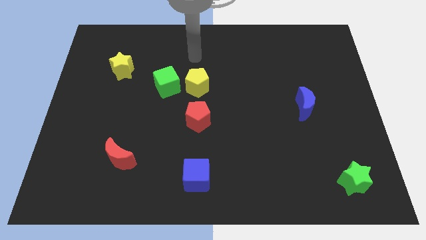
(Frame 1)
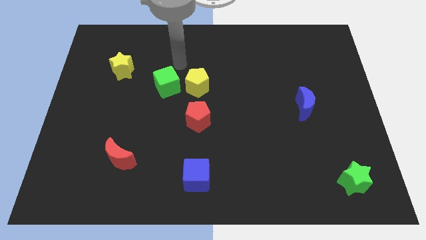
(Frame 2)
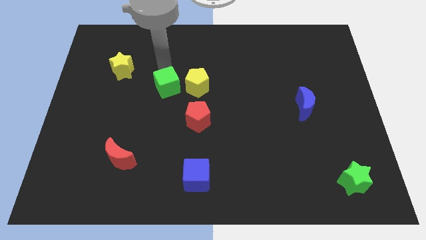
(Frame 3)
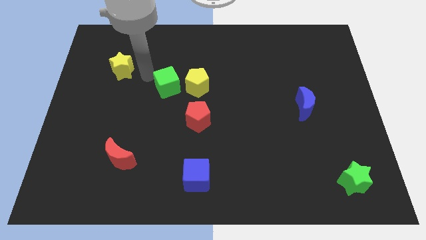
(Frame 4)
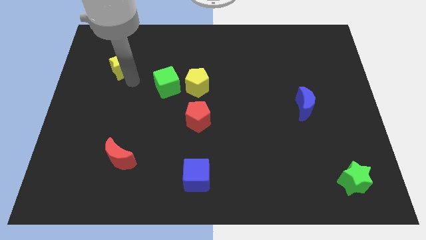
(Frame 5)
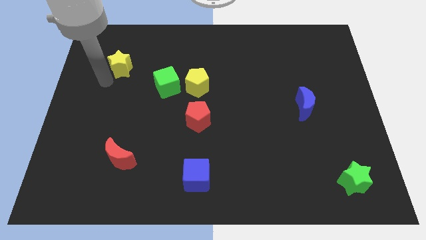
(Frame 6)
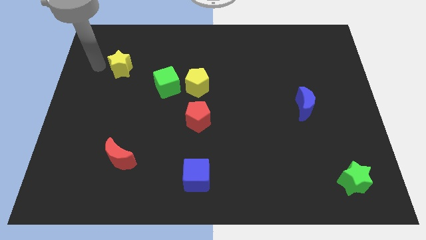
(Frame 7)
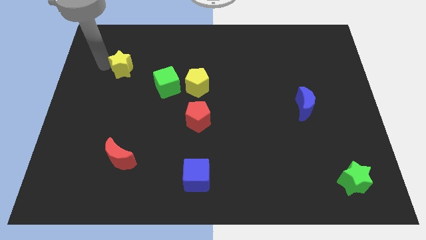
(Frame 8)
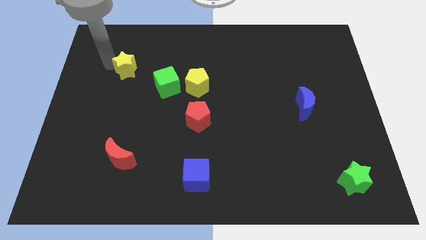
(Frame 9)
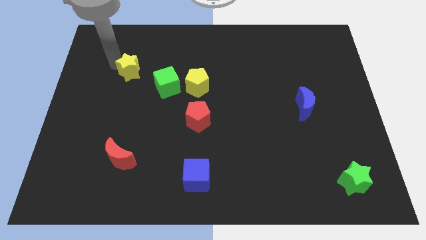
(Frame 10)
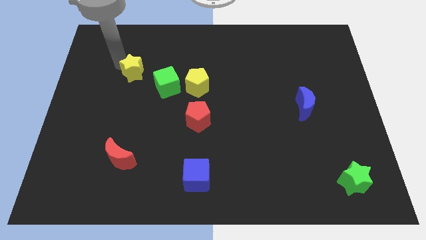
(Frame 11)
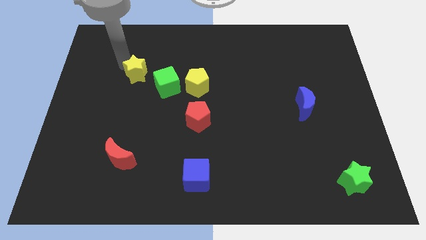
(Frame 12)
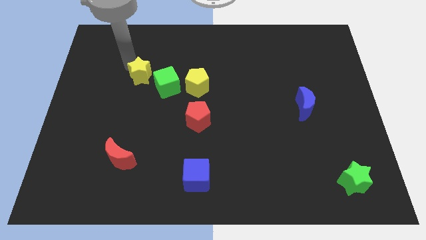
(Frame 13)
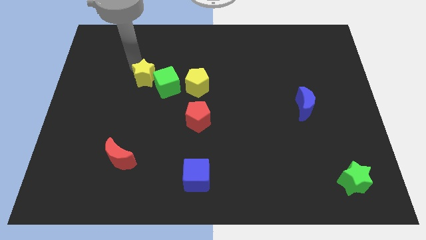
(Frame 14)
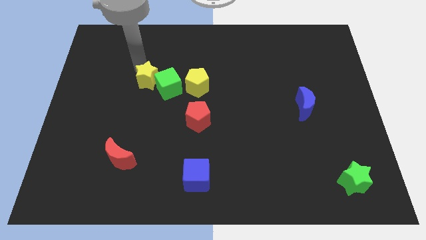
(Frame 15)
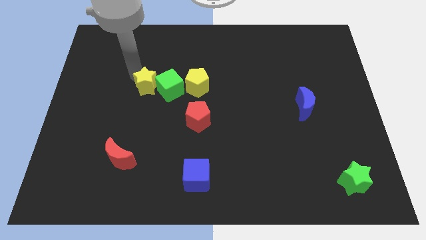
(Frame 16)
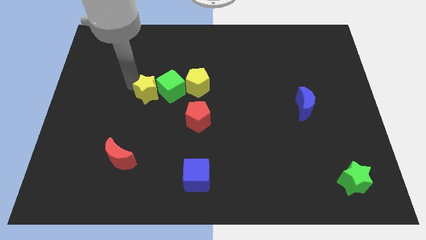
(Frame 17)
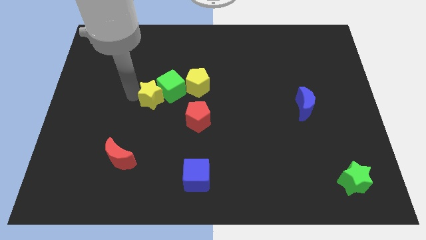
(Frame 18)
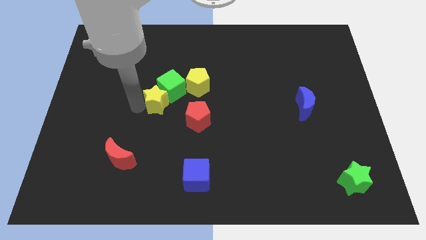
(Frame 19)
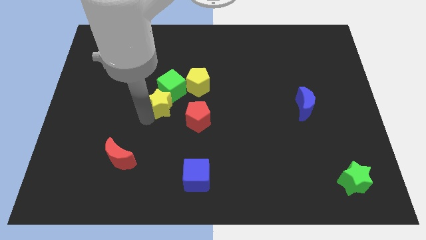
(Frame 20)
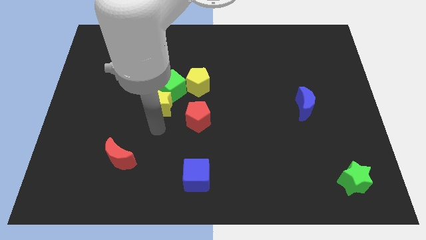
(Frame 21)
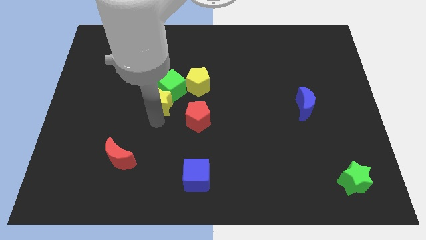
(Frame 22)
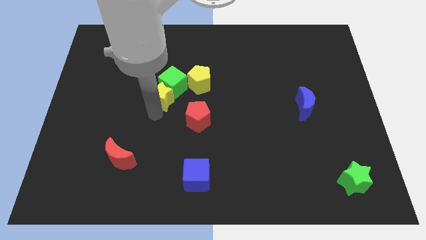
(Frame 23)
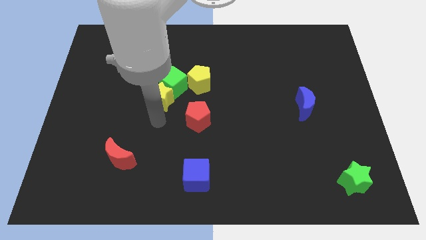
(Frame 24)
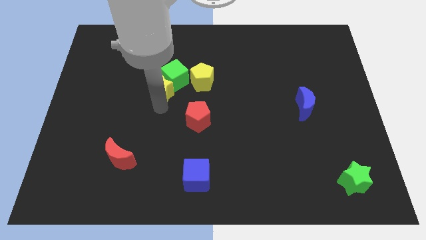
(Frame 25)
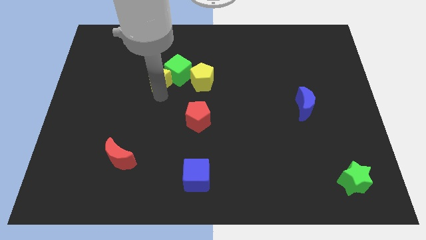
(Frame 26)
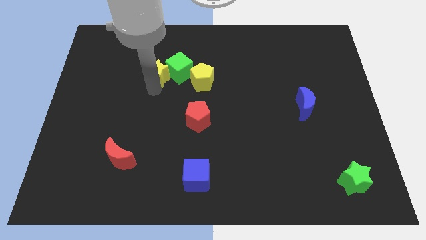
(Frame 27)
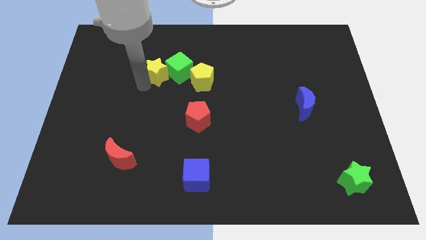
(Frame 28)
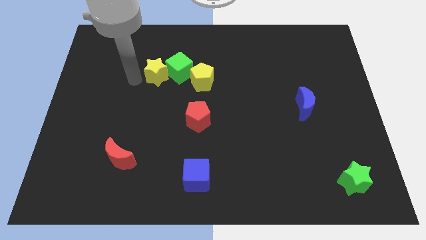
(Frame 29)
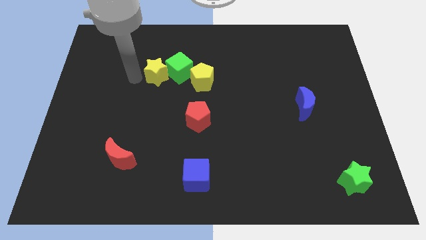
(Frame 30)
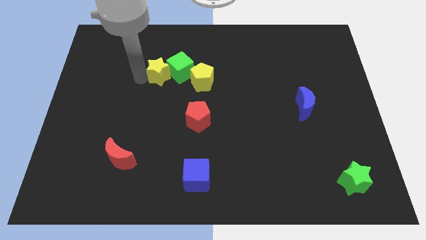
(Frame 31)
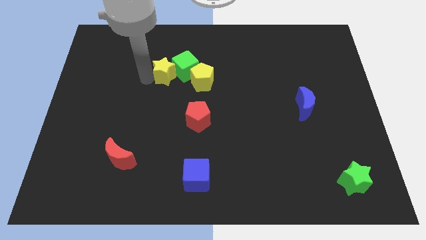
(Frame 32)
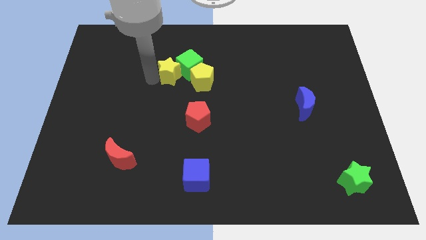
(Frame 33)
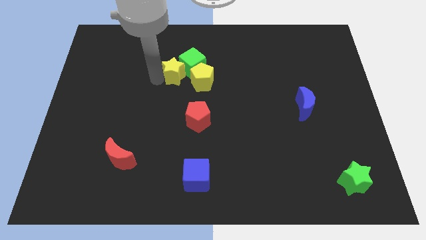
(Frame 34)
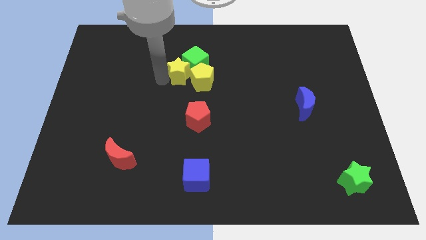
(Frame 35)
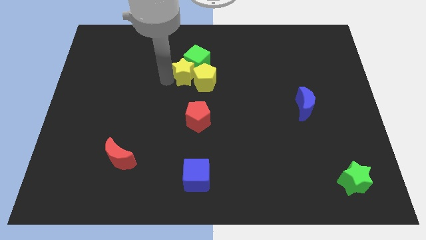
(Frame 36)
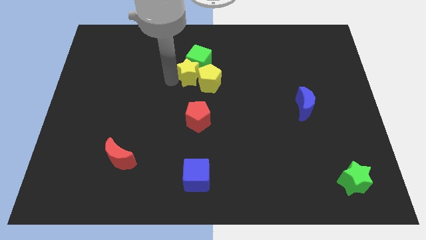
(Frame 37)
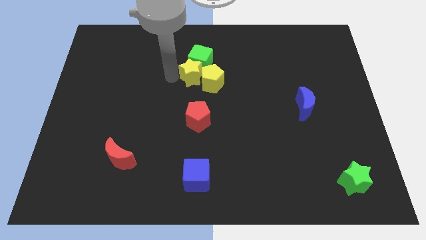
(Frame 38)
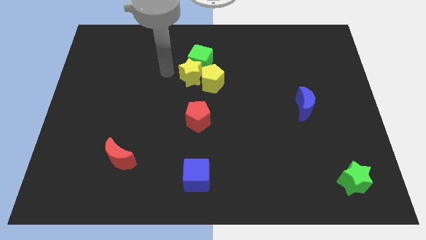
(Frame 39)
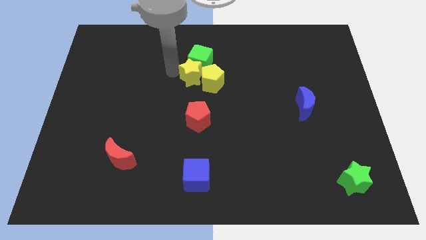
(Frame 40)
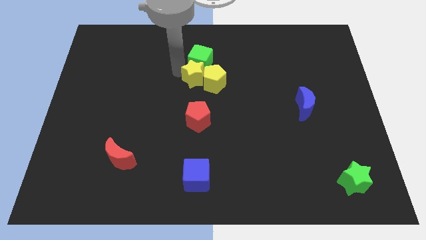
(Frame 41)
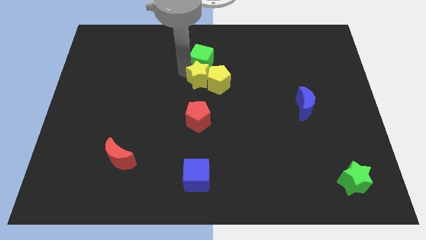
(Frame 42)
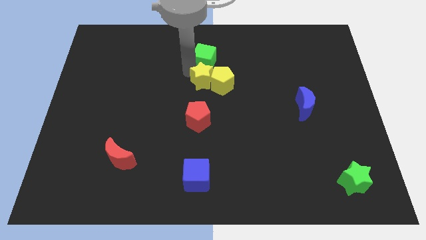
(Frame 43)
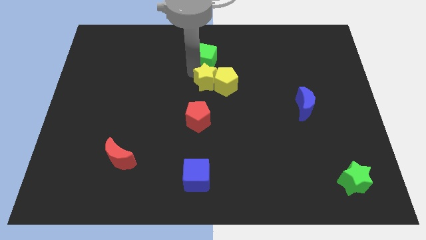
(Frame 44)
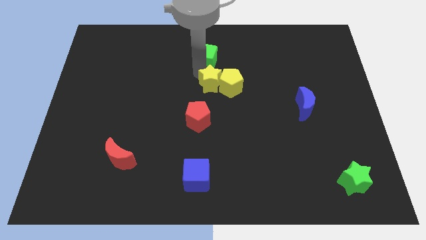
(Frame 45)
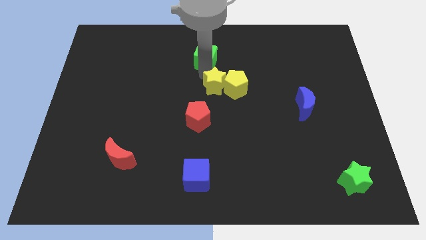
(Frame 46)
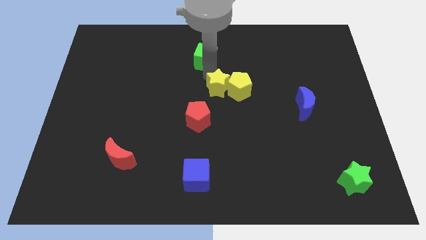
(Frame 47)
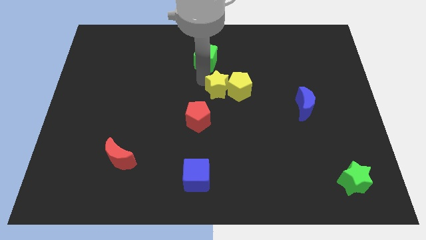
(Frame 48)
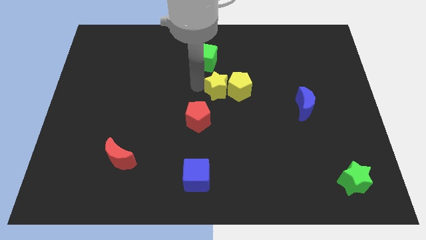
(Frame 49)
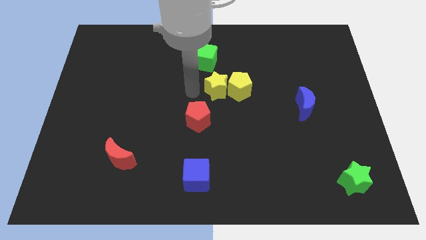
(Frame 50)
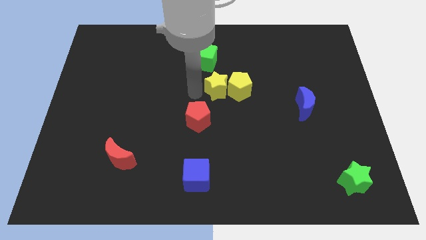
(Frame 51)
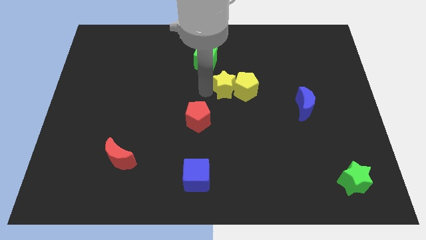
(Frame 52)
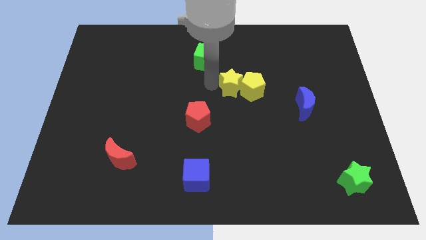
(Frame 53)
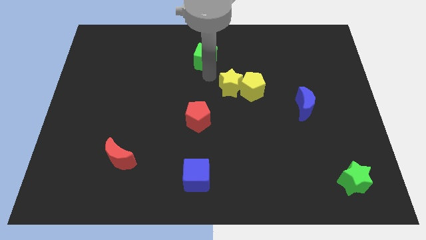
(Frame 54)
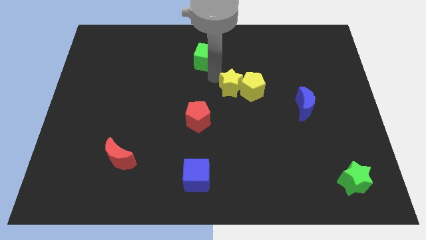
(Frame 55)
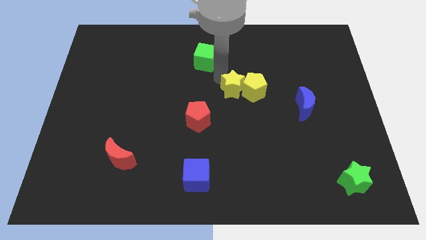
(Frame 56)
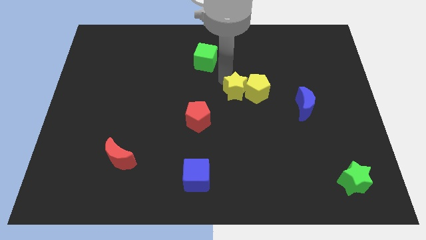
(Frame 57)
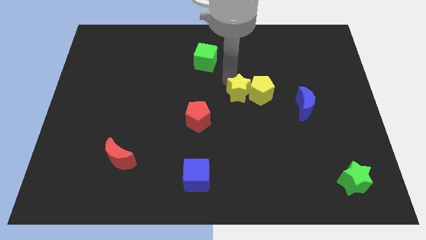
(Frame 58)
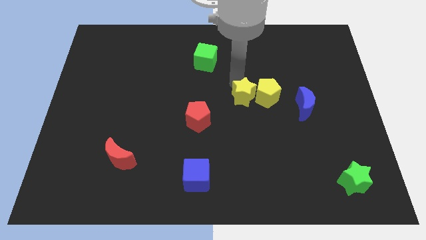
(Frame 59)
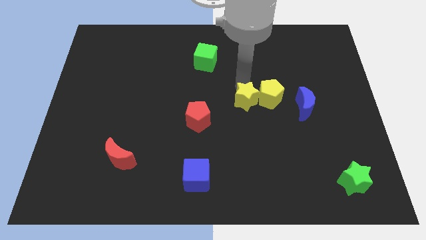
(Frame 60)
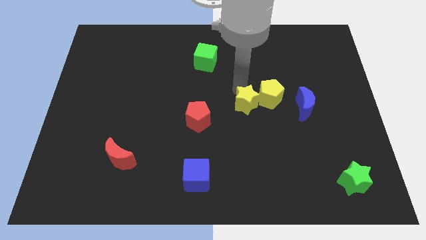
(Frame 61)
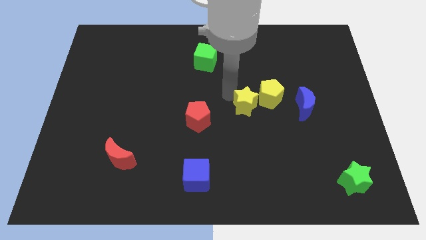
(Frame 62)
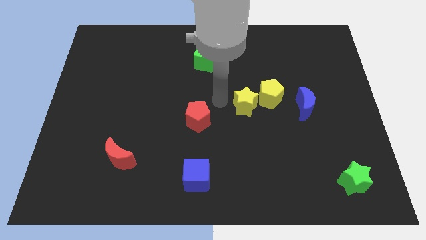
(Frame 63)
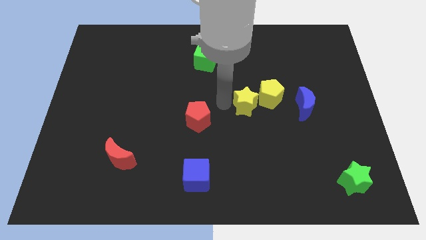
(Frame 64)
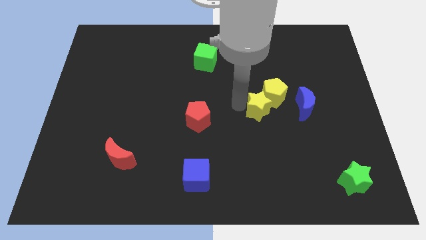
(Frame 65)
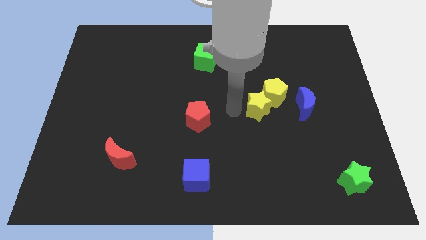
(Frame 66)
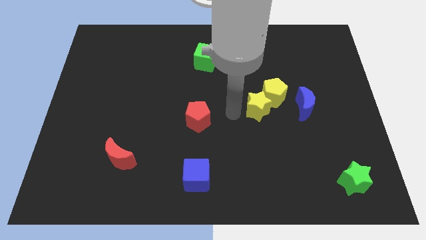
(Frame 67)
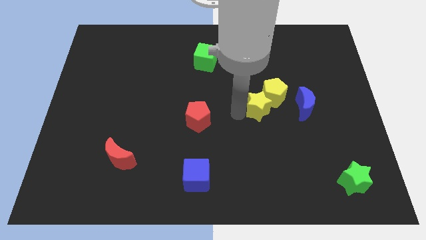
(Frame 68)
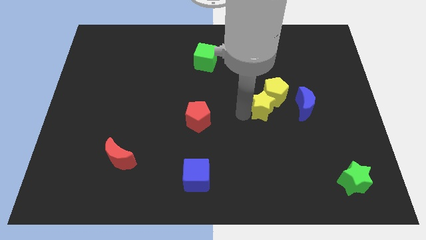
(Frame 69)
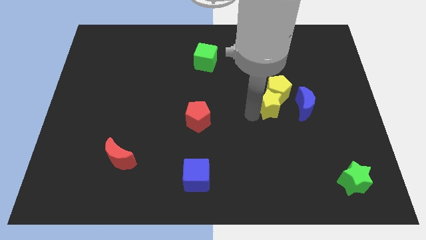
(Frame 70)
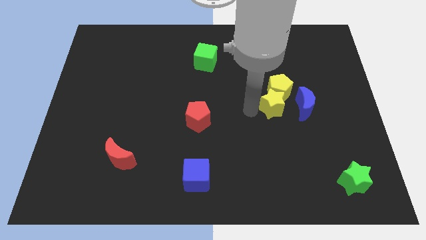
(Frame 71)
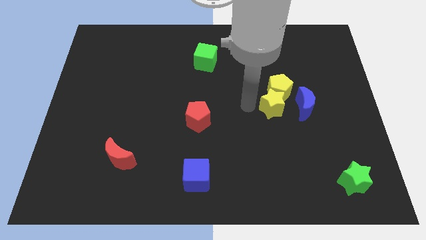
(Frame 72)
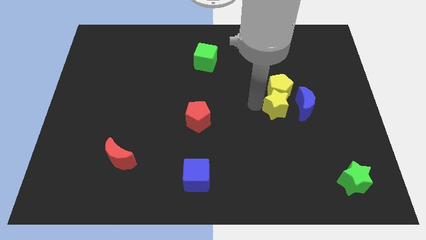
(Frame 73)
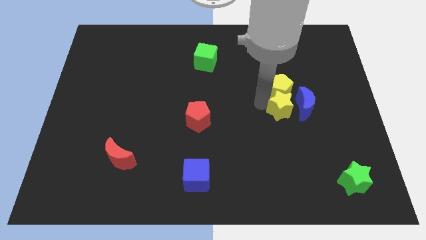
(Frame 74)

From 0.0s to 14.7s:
push the yellow star towards the blue moon

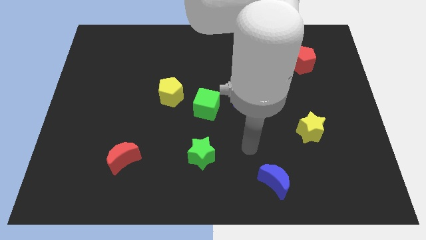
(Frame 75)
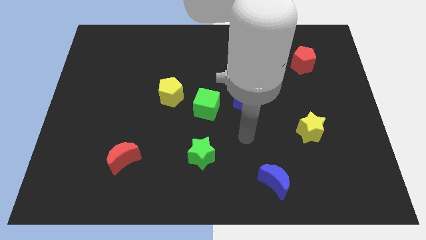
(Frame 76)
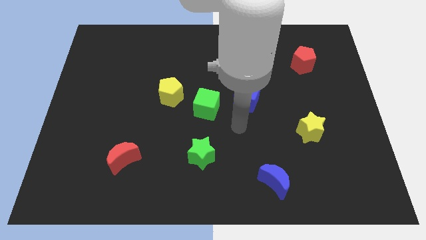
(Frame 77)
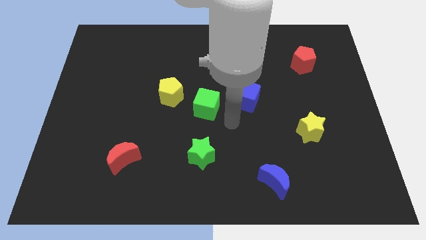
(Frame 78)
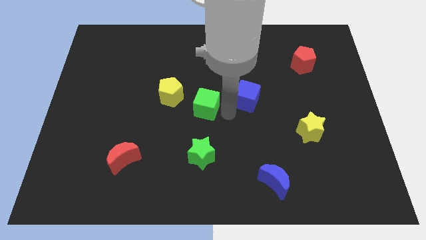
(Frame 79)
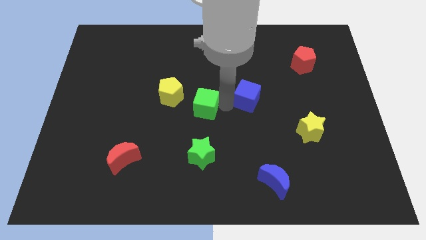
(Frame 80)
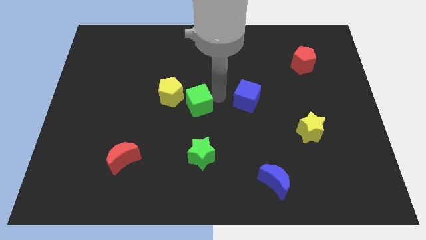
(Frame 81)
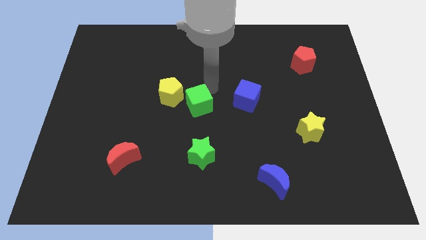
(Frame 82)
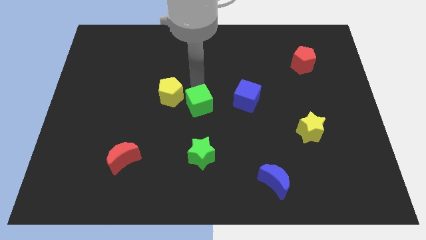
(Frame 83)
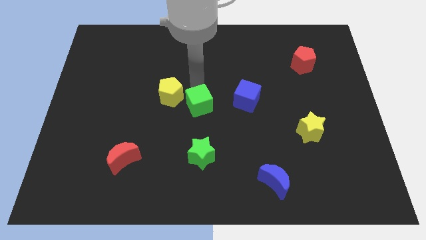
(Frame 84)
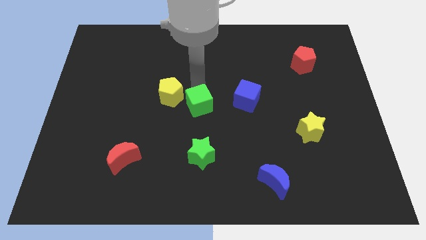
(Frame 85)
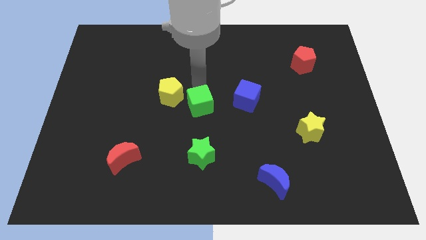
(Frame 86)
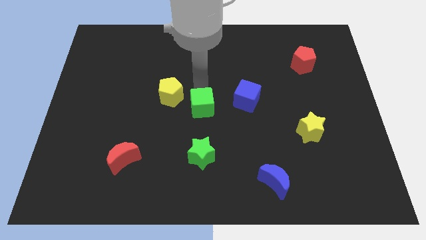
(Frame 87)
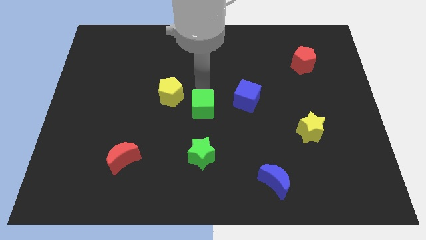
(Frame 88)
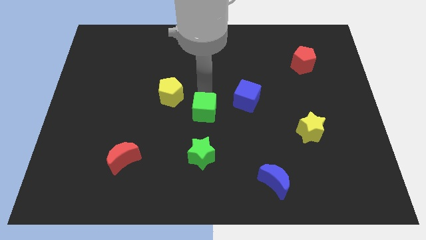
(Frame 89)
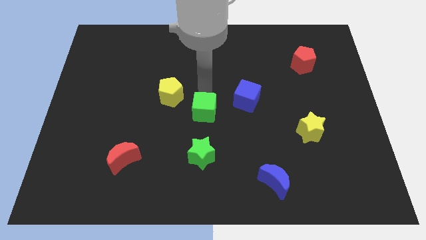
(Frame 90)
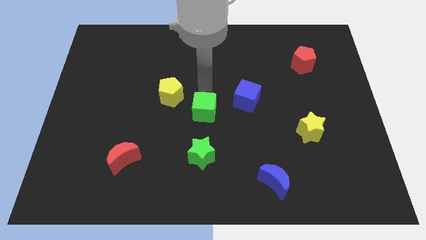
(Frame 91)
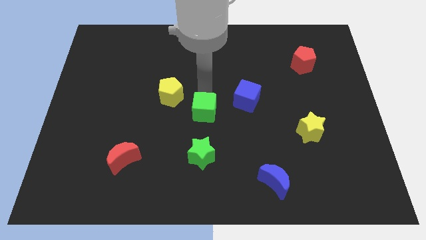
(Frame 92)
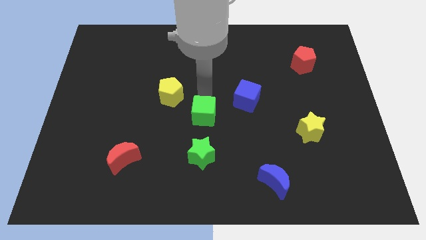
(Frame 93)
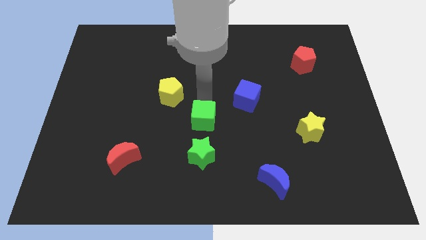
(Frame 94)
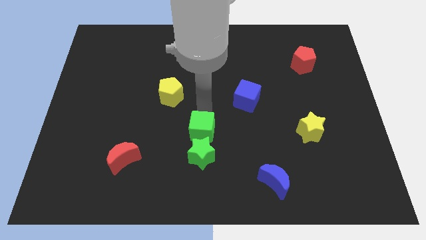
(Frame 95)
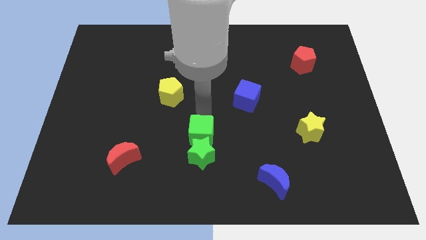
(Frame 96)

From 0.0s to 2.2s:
put the green cube to the green star
